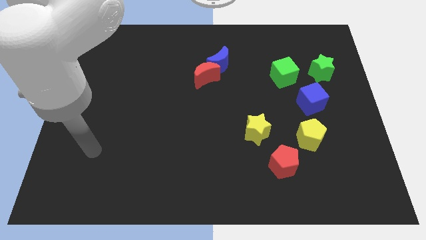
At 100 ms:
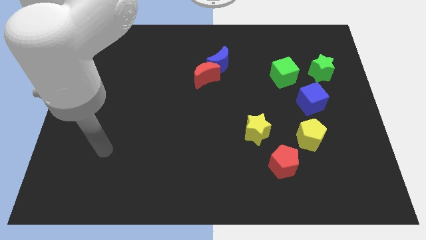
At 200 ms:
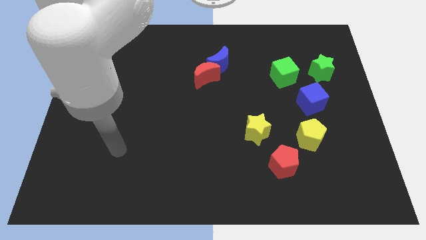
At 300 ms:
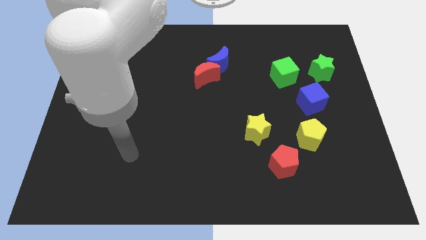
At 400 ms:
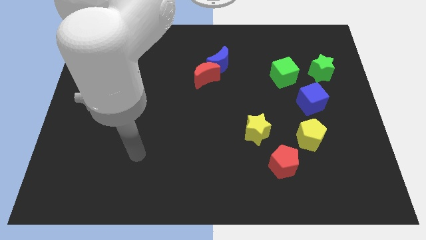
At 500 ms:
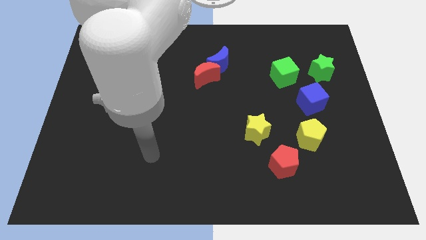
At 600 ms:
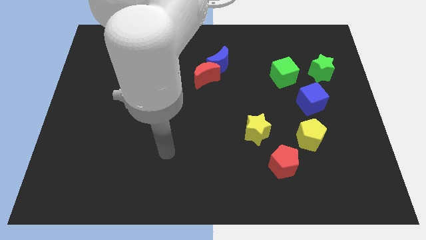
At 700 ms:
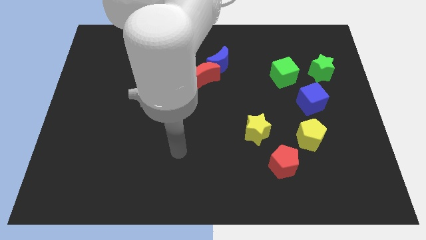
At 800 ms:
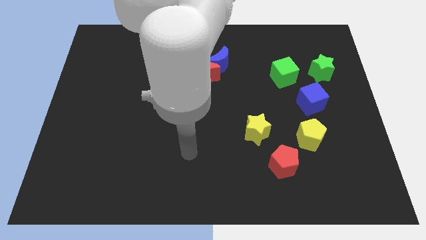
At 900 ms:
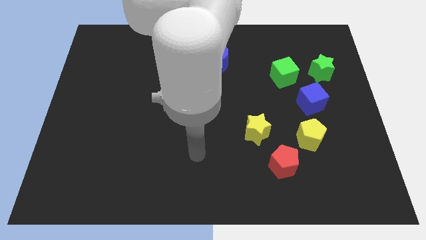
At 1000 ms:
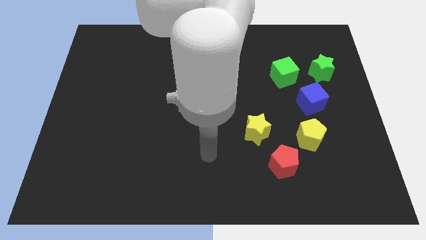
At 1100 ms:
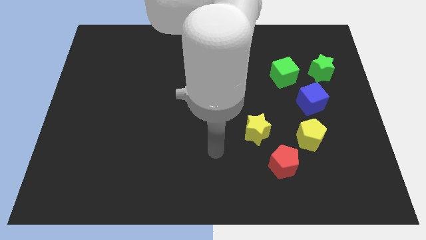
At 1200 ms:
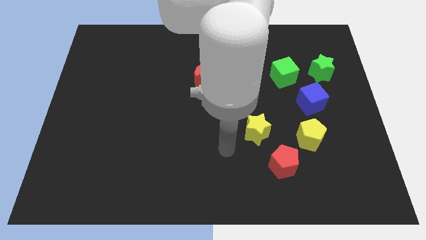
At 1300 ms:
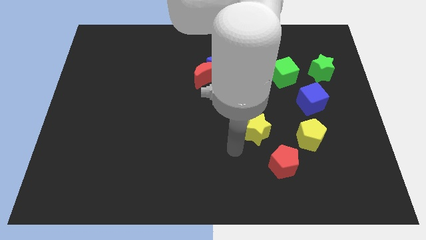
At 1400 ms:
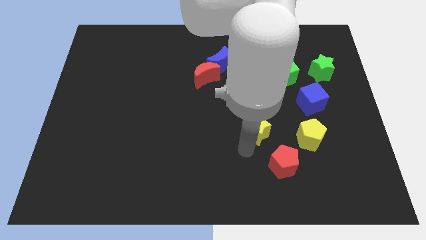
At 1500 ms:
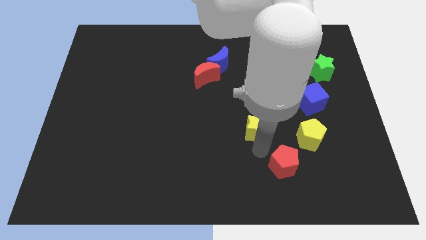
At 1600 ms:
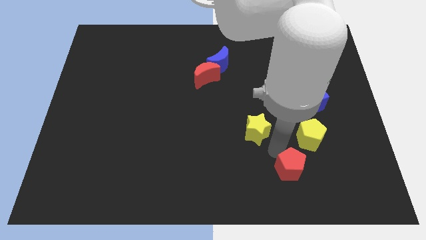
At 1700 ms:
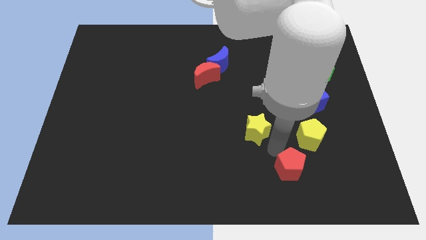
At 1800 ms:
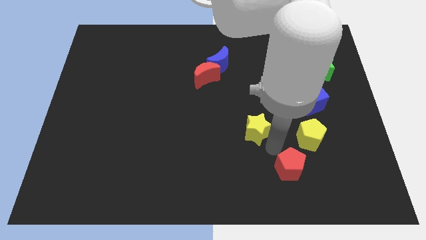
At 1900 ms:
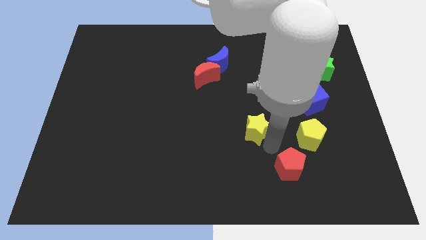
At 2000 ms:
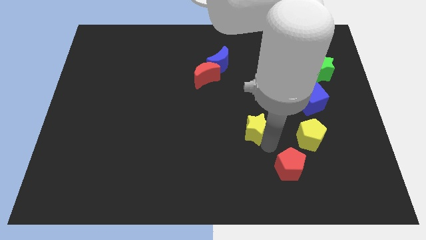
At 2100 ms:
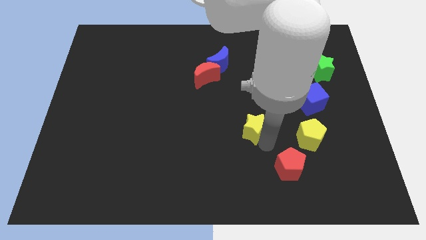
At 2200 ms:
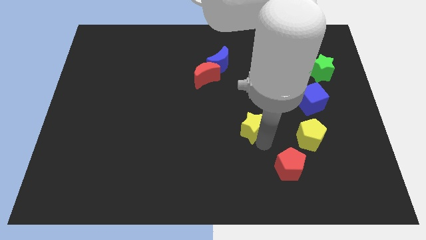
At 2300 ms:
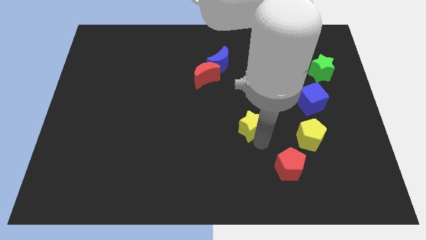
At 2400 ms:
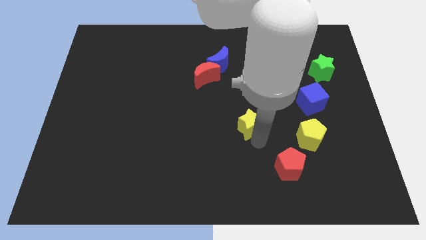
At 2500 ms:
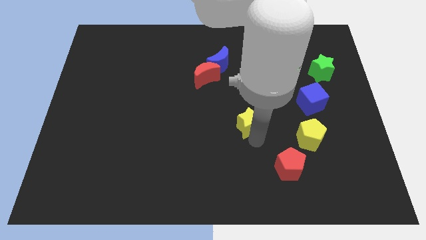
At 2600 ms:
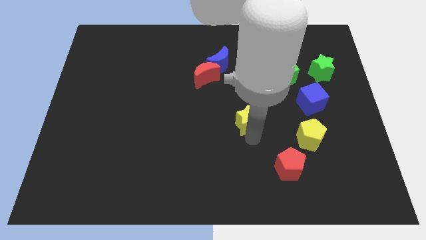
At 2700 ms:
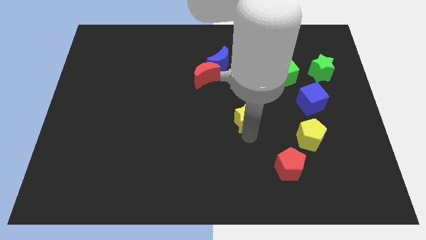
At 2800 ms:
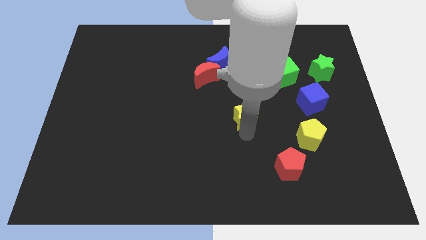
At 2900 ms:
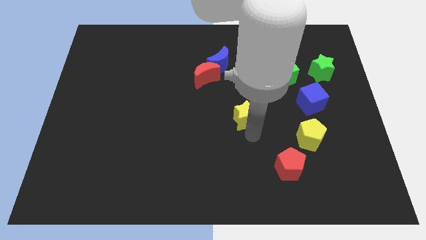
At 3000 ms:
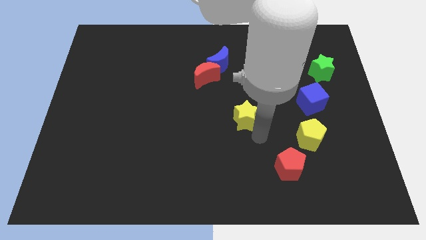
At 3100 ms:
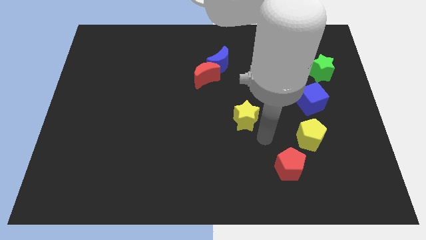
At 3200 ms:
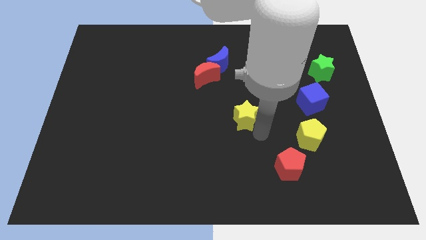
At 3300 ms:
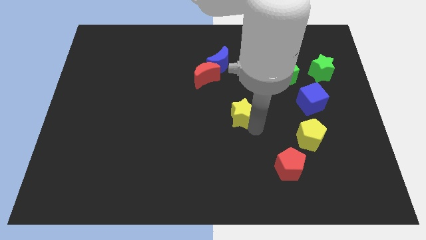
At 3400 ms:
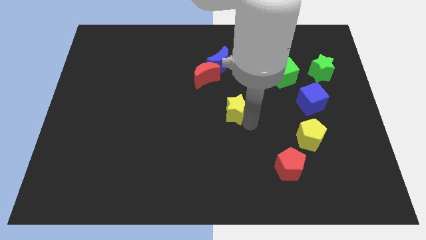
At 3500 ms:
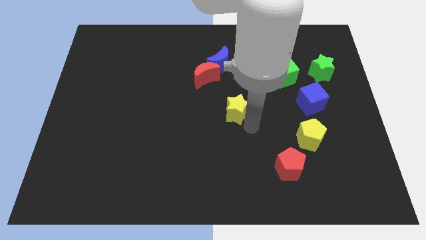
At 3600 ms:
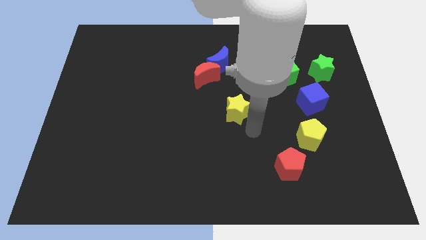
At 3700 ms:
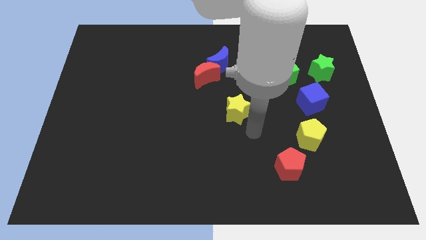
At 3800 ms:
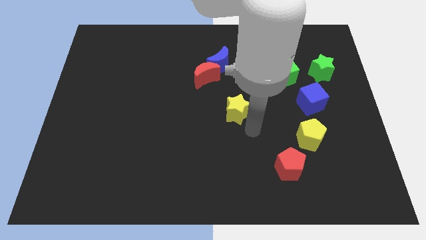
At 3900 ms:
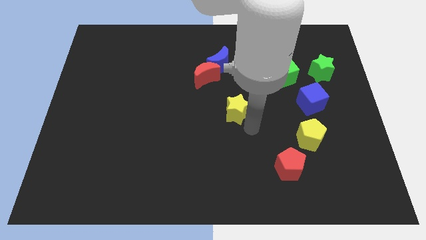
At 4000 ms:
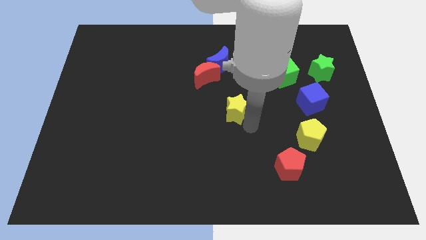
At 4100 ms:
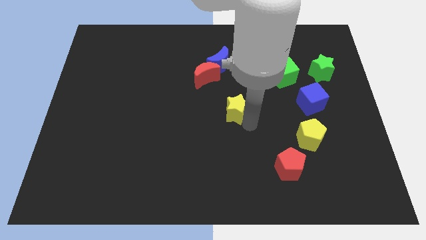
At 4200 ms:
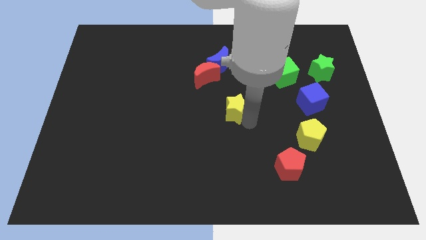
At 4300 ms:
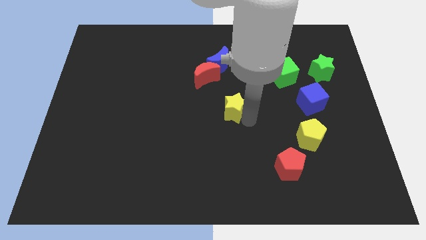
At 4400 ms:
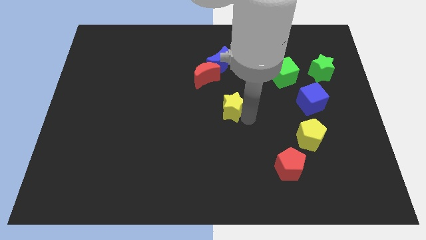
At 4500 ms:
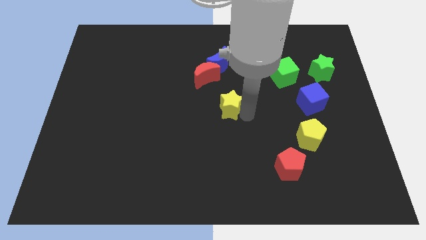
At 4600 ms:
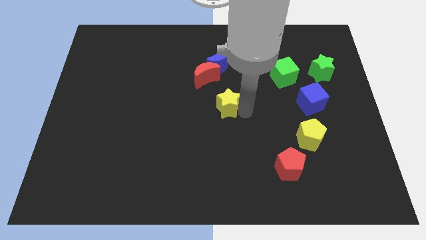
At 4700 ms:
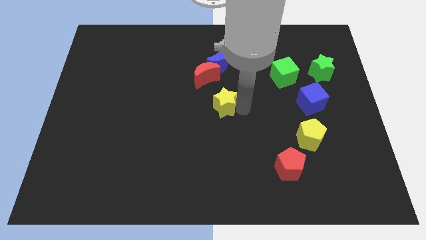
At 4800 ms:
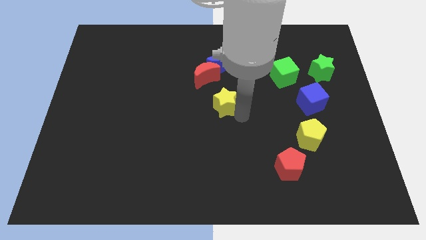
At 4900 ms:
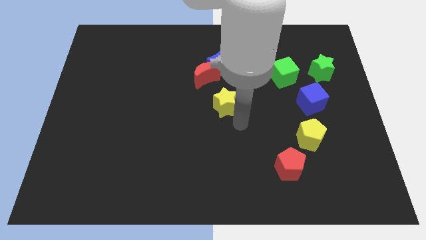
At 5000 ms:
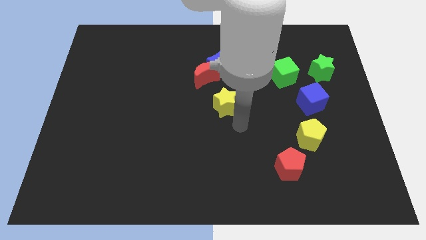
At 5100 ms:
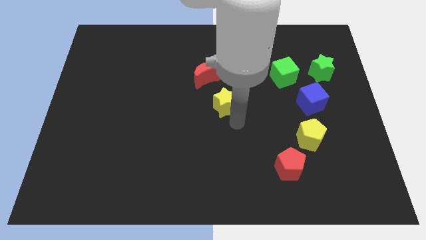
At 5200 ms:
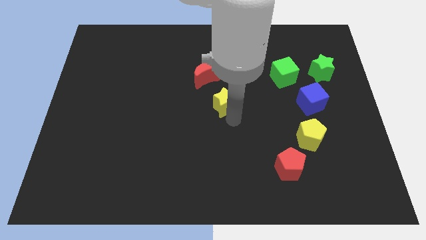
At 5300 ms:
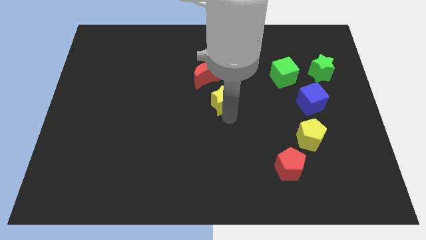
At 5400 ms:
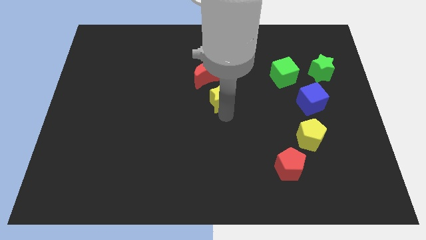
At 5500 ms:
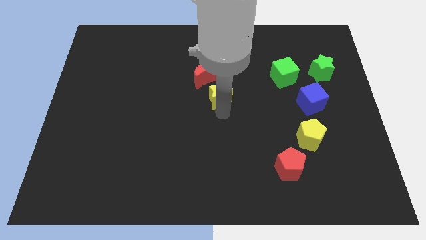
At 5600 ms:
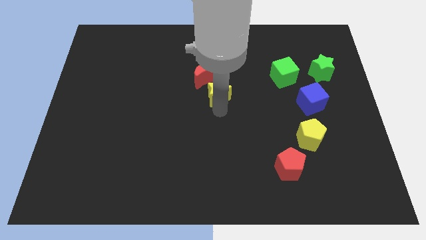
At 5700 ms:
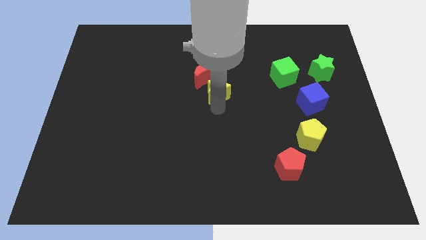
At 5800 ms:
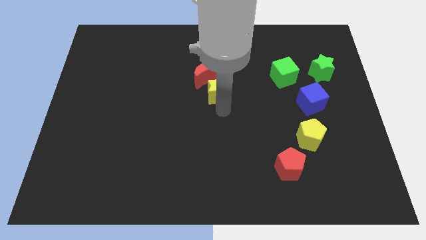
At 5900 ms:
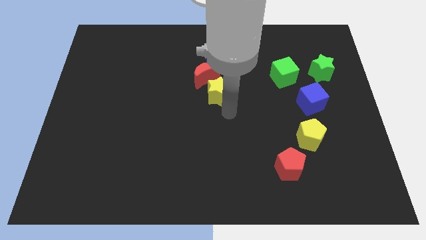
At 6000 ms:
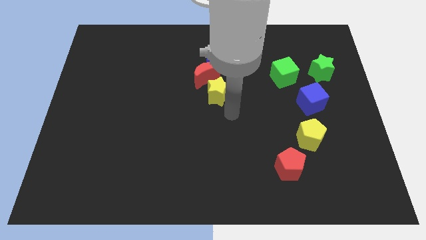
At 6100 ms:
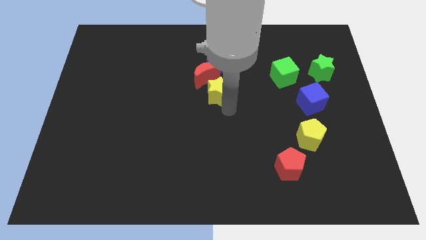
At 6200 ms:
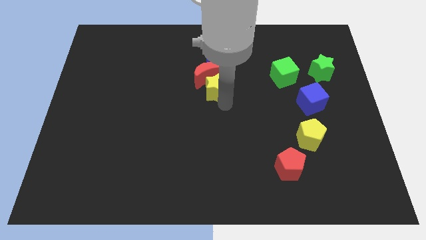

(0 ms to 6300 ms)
push the yellow star close to the red moon

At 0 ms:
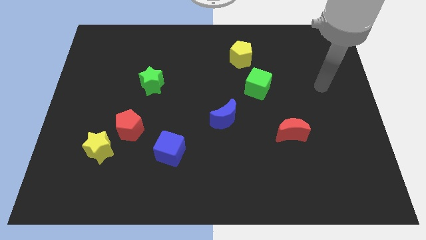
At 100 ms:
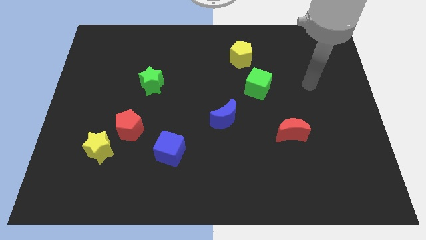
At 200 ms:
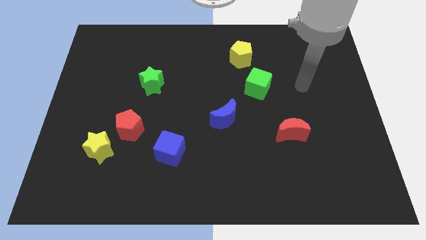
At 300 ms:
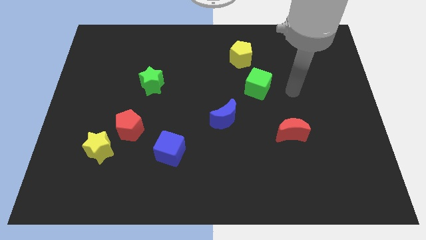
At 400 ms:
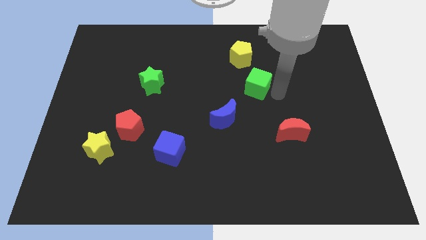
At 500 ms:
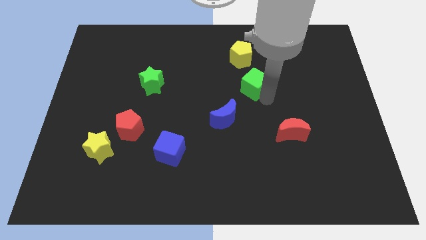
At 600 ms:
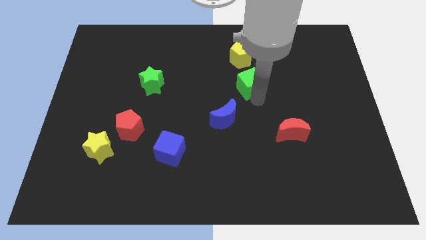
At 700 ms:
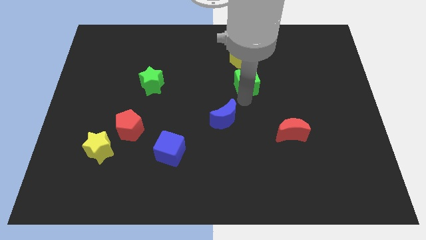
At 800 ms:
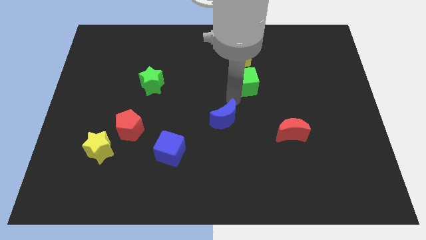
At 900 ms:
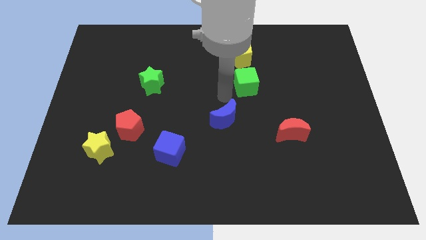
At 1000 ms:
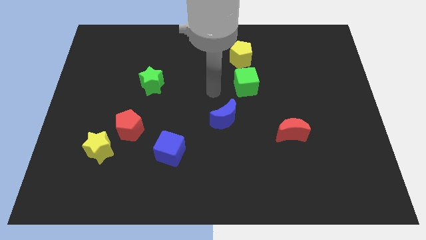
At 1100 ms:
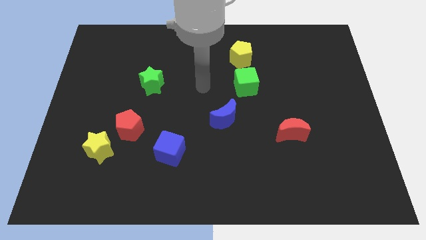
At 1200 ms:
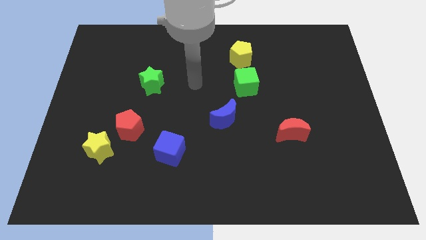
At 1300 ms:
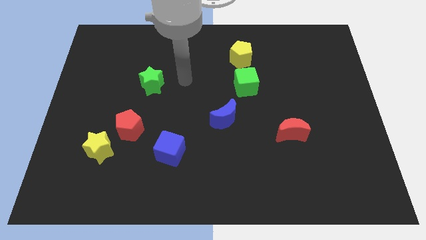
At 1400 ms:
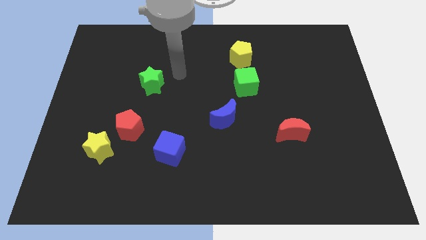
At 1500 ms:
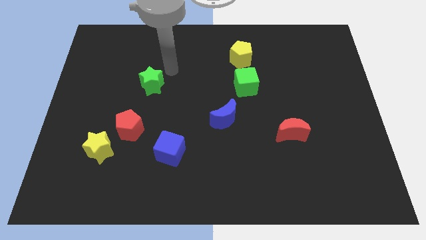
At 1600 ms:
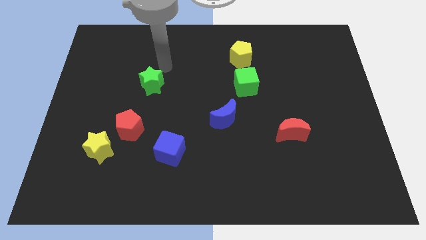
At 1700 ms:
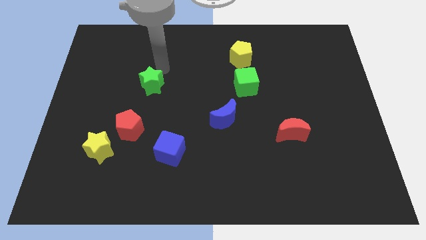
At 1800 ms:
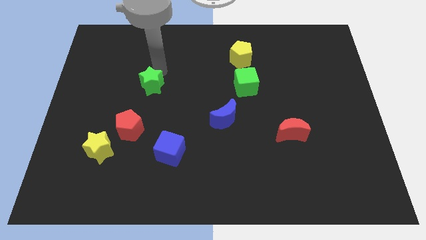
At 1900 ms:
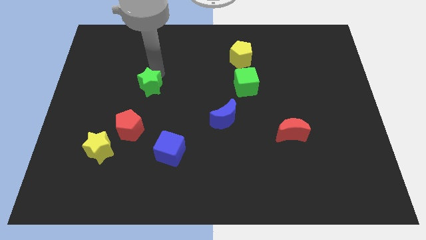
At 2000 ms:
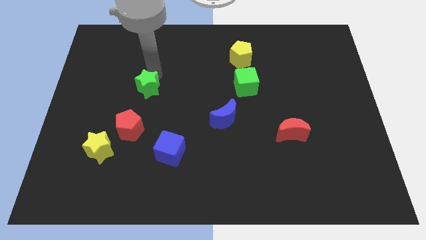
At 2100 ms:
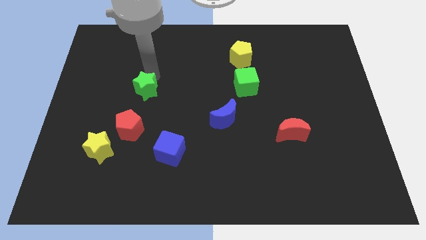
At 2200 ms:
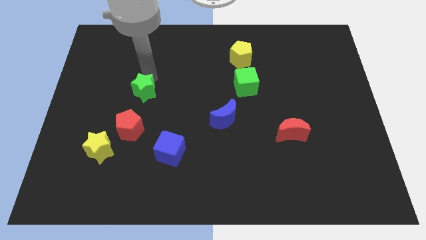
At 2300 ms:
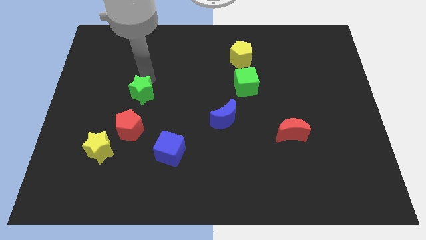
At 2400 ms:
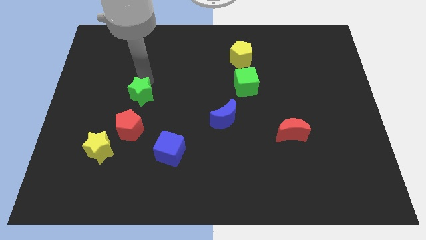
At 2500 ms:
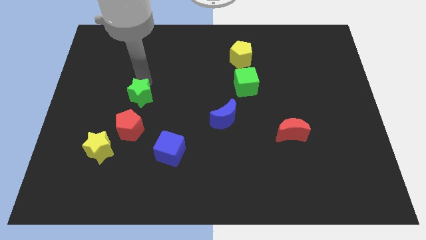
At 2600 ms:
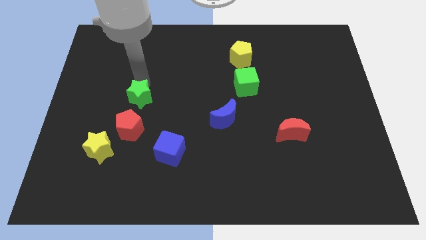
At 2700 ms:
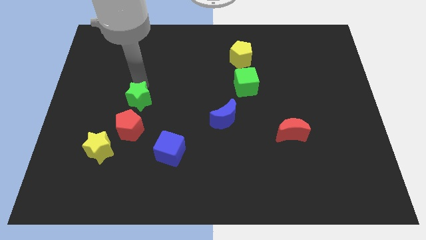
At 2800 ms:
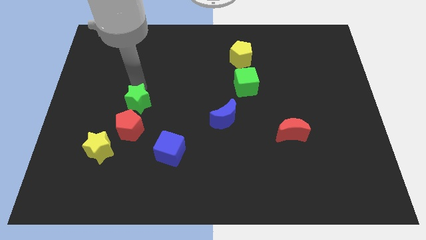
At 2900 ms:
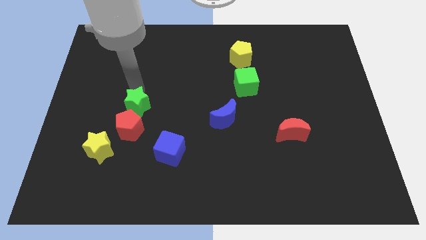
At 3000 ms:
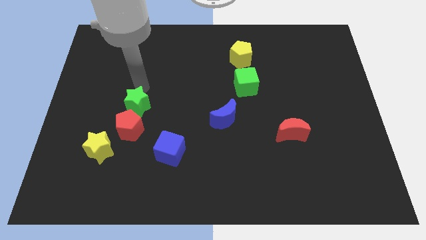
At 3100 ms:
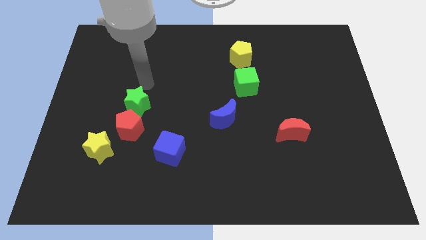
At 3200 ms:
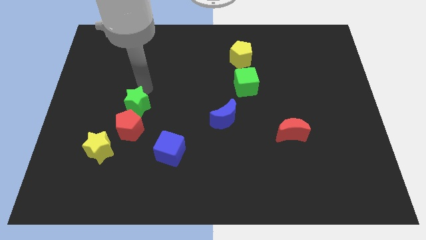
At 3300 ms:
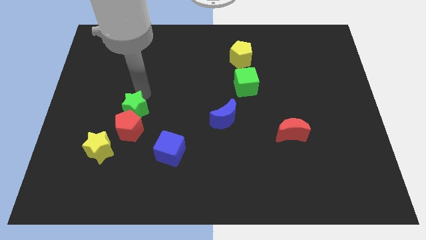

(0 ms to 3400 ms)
push the green star towards the red pentagon
